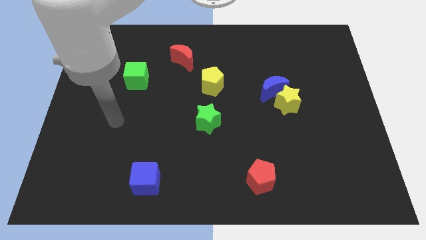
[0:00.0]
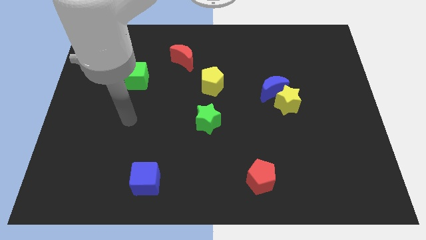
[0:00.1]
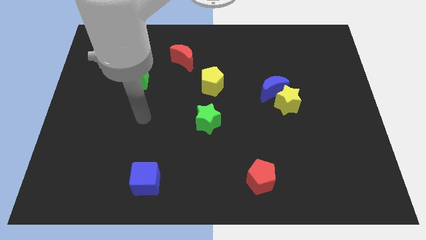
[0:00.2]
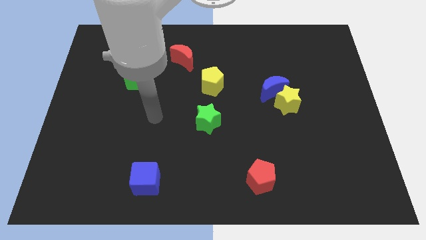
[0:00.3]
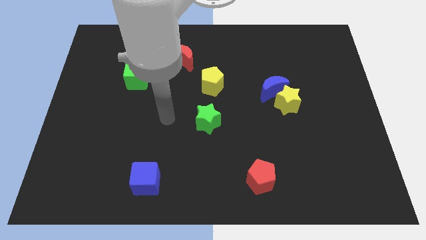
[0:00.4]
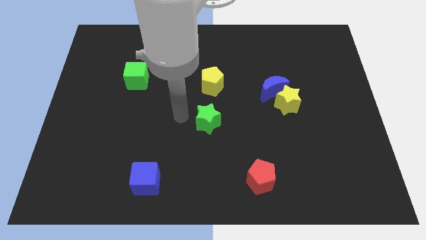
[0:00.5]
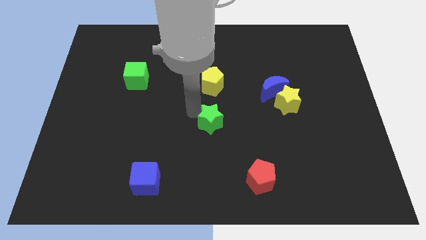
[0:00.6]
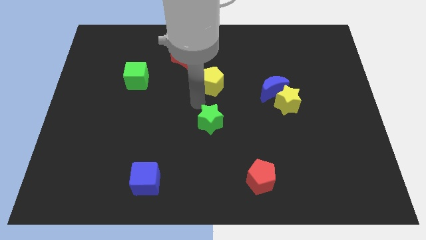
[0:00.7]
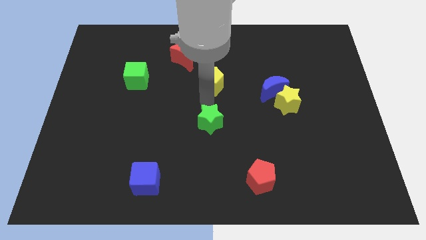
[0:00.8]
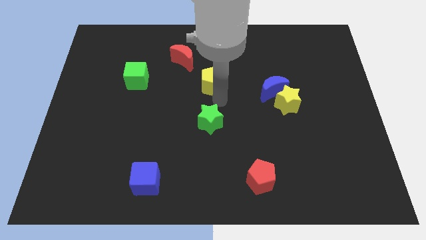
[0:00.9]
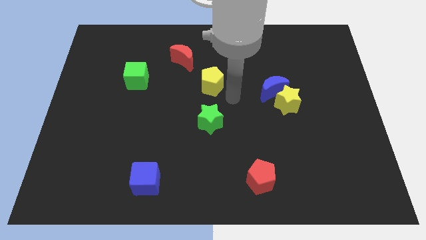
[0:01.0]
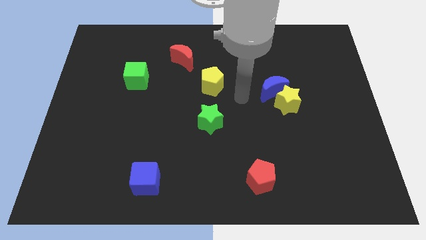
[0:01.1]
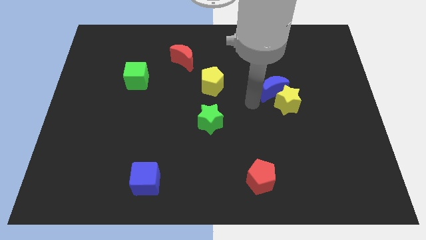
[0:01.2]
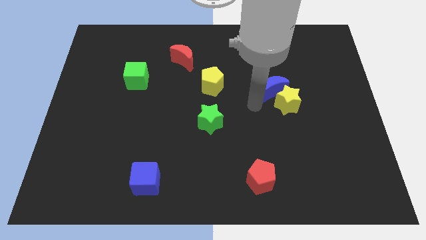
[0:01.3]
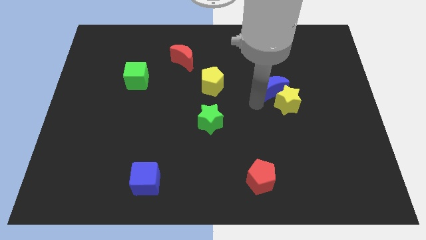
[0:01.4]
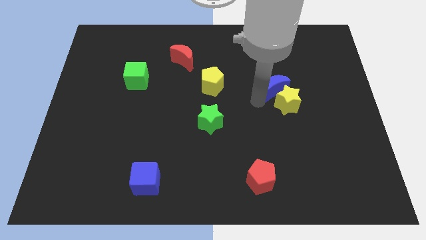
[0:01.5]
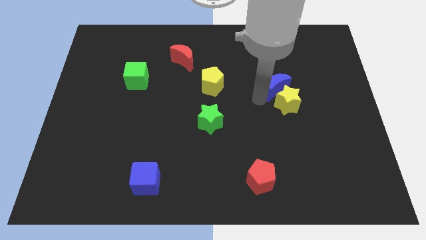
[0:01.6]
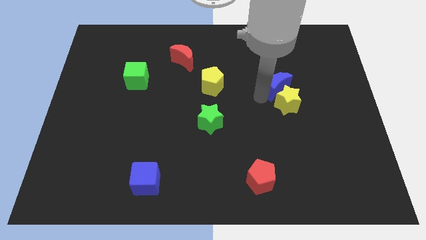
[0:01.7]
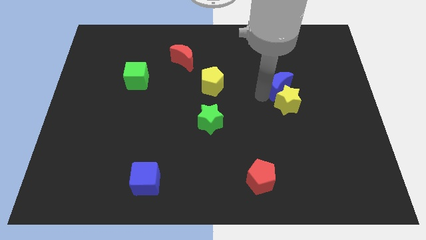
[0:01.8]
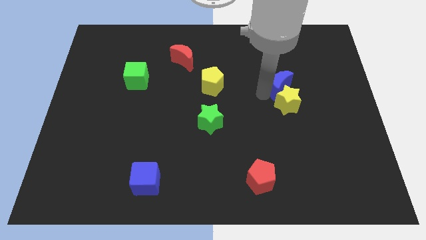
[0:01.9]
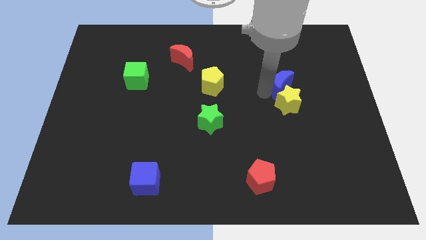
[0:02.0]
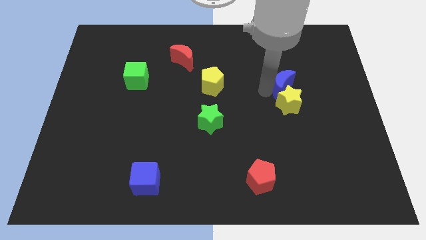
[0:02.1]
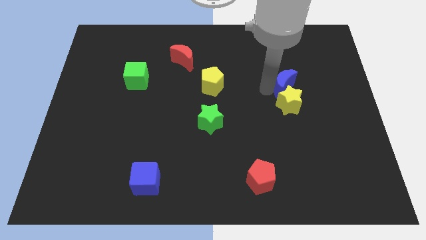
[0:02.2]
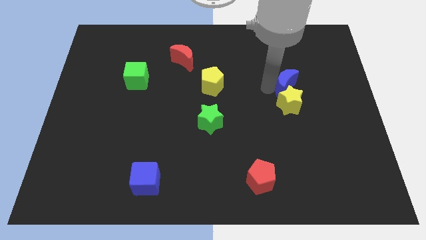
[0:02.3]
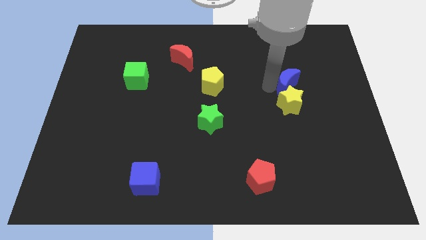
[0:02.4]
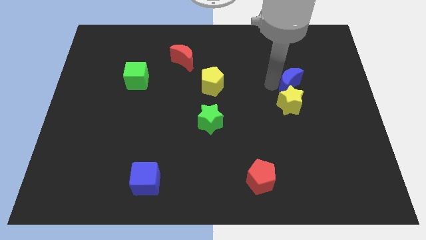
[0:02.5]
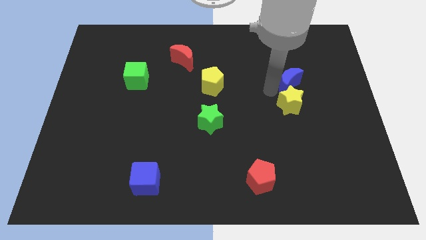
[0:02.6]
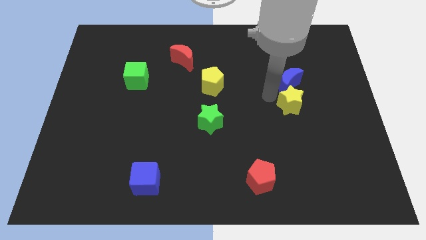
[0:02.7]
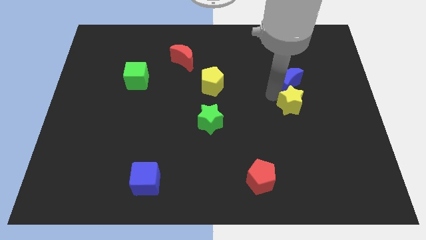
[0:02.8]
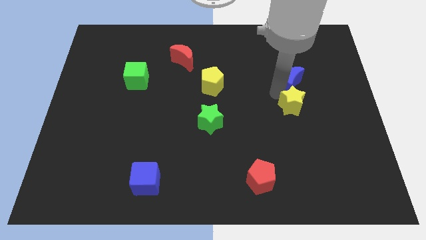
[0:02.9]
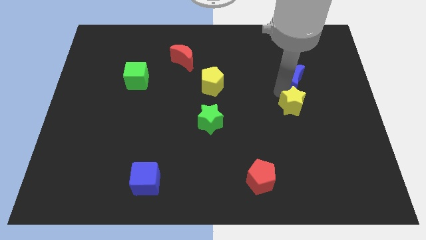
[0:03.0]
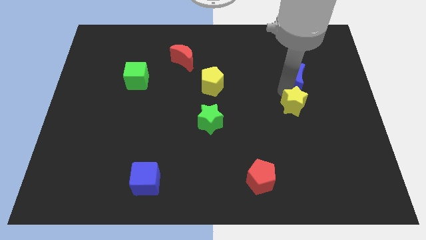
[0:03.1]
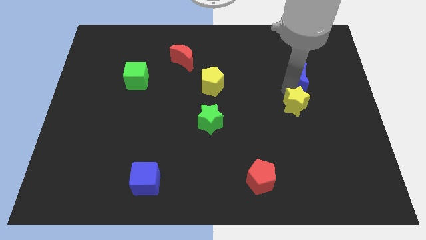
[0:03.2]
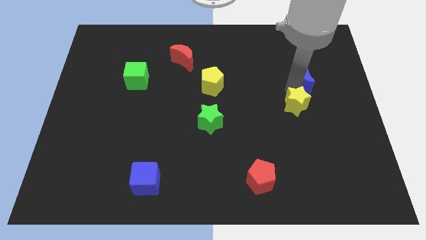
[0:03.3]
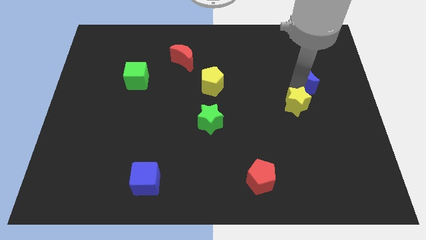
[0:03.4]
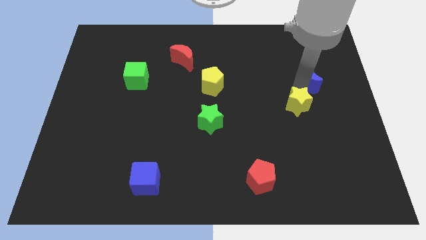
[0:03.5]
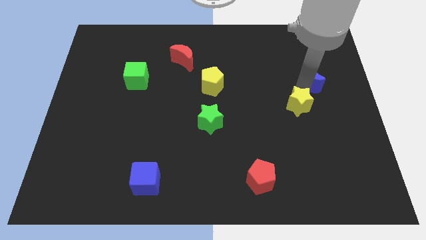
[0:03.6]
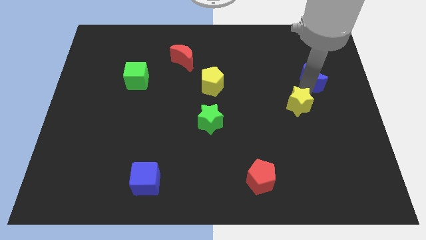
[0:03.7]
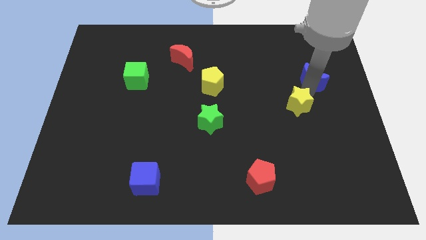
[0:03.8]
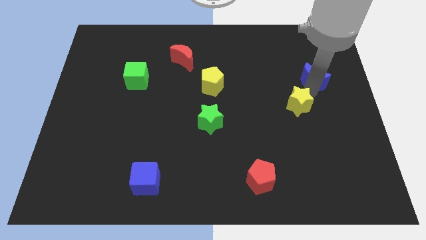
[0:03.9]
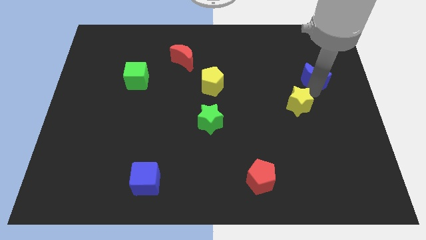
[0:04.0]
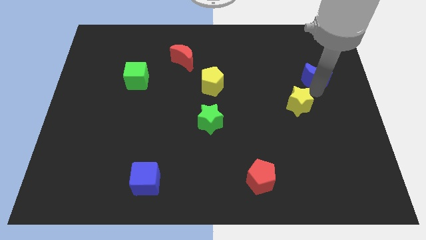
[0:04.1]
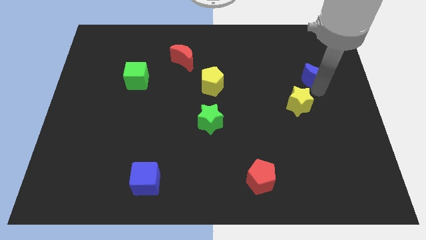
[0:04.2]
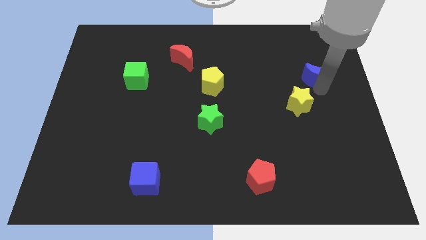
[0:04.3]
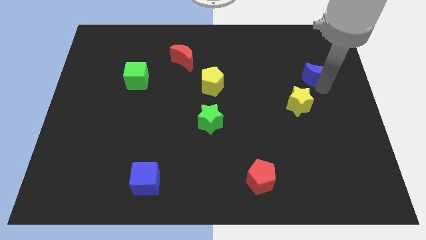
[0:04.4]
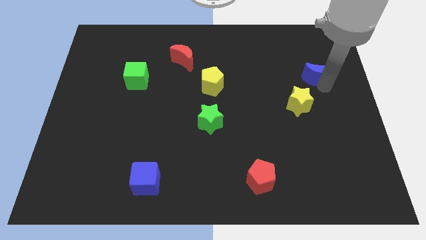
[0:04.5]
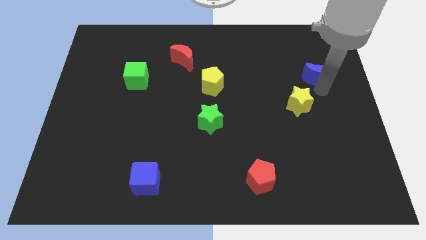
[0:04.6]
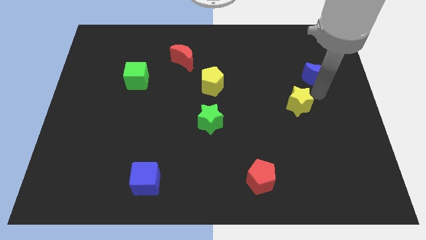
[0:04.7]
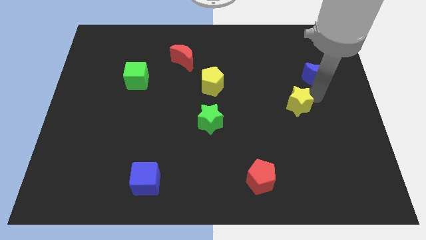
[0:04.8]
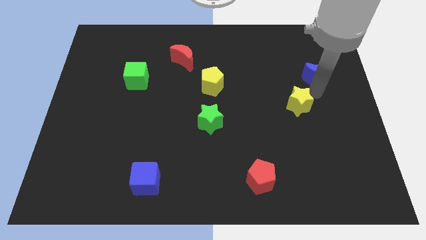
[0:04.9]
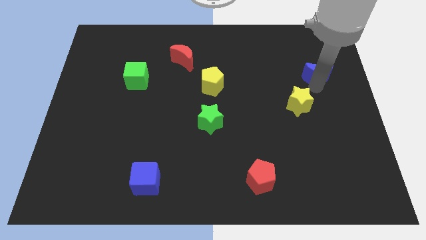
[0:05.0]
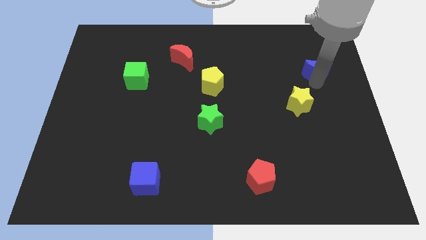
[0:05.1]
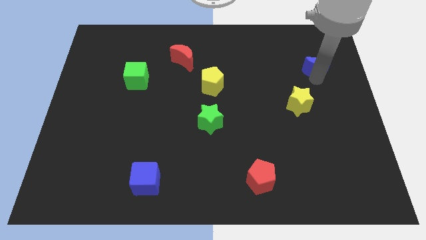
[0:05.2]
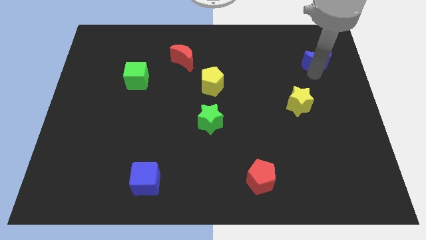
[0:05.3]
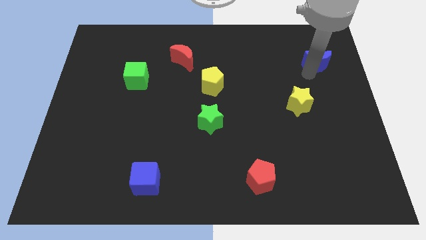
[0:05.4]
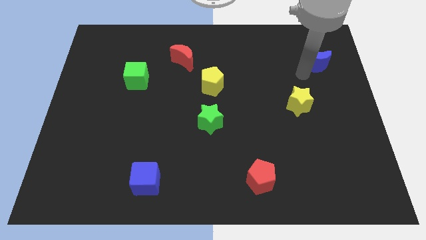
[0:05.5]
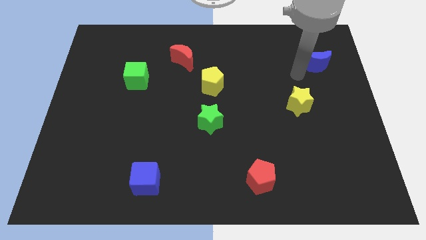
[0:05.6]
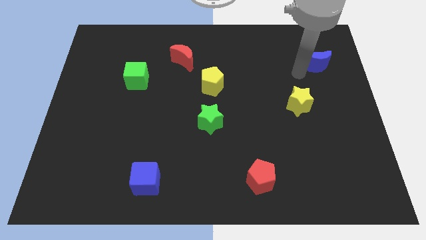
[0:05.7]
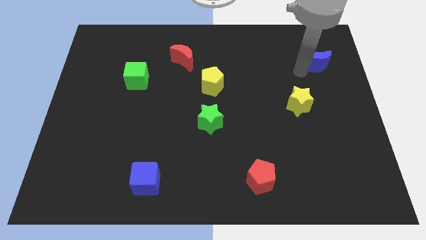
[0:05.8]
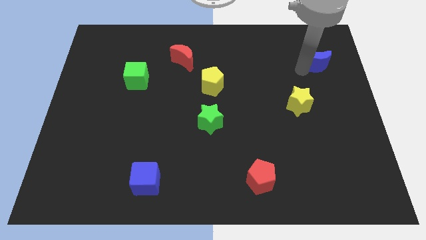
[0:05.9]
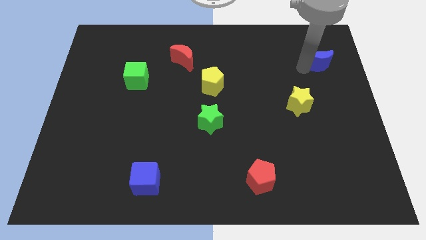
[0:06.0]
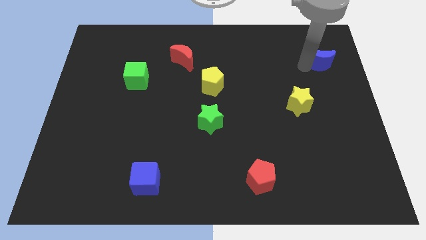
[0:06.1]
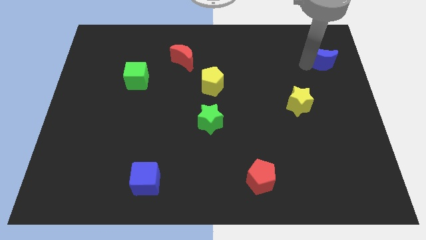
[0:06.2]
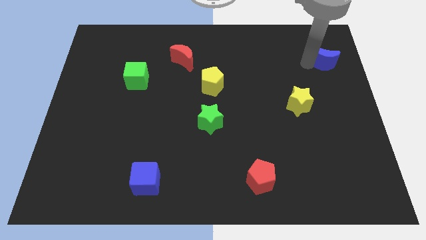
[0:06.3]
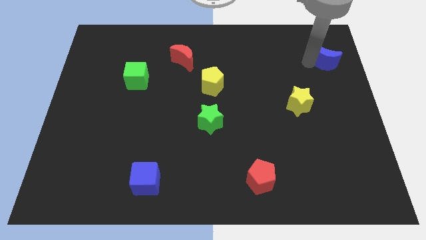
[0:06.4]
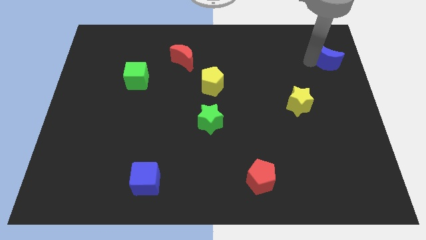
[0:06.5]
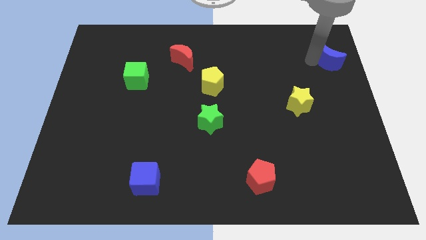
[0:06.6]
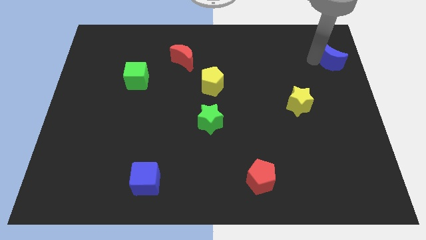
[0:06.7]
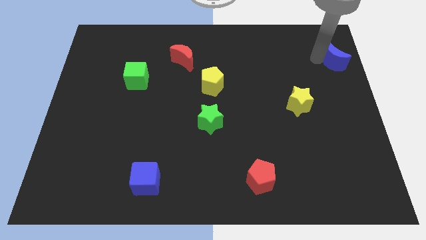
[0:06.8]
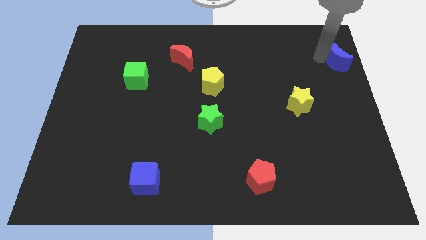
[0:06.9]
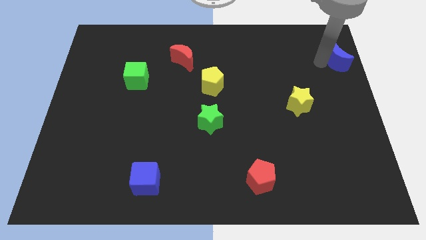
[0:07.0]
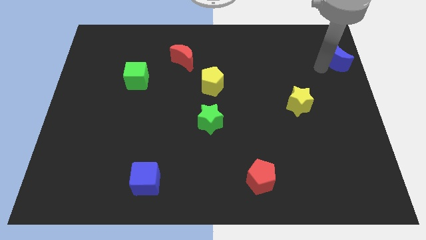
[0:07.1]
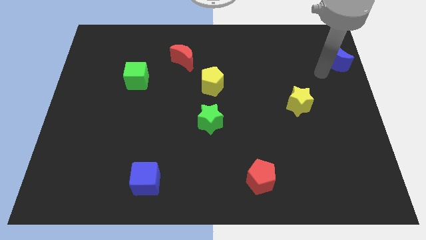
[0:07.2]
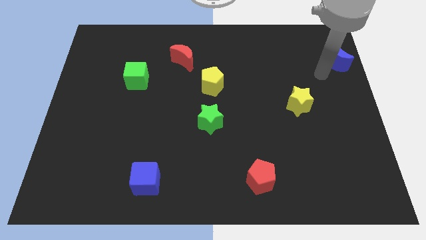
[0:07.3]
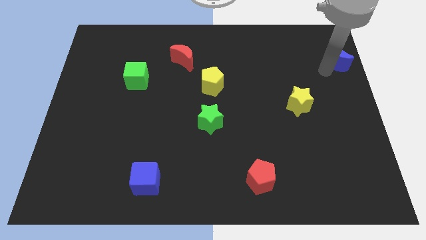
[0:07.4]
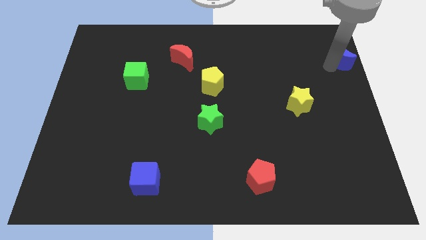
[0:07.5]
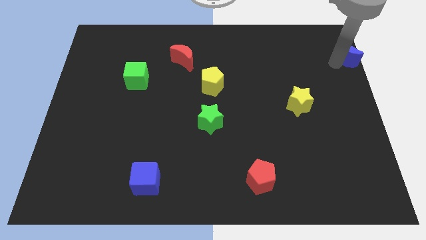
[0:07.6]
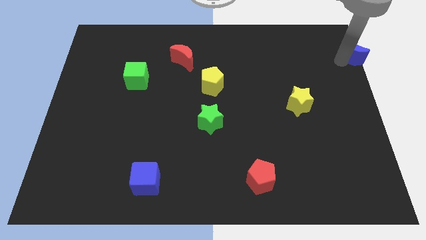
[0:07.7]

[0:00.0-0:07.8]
slide the blue moon to the upper right corner
